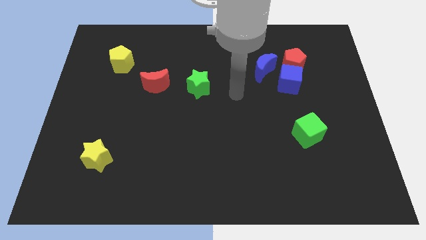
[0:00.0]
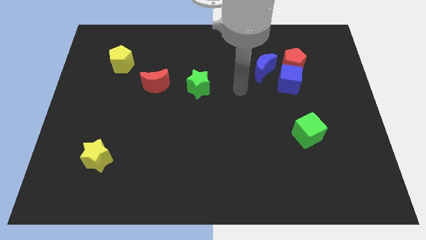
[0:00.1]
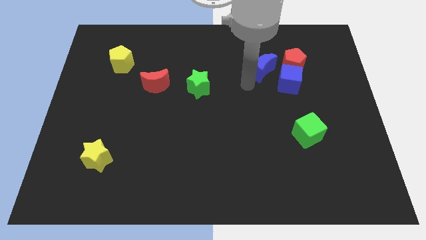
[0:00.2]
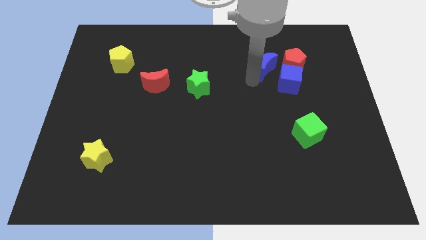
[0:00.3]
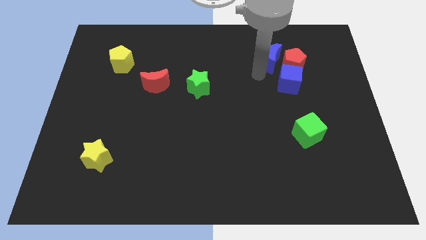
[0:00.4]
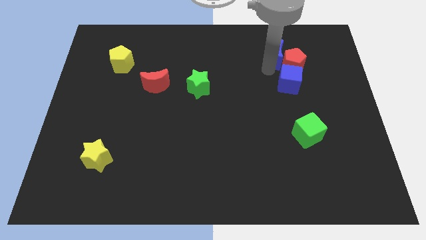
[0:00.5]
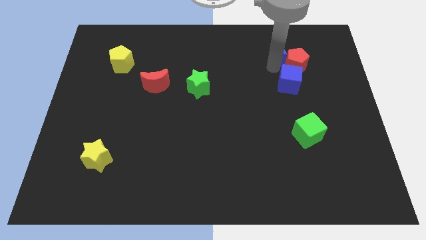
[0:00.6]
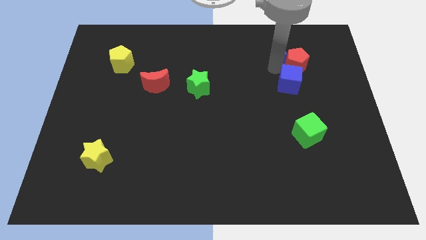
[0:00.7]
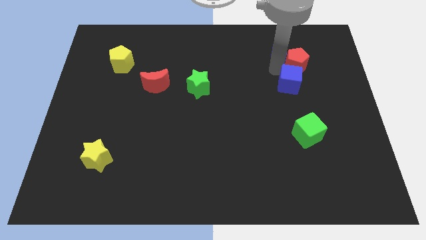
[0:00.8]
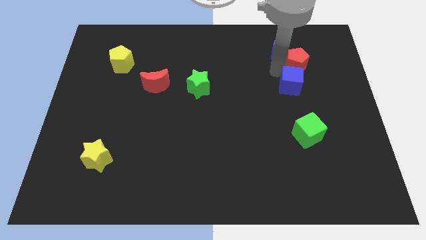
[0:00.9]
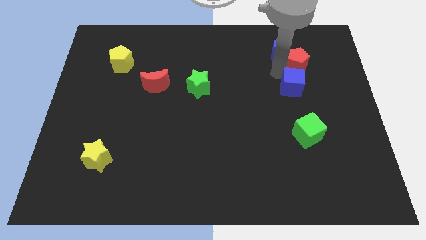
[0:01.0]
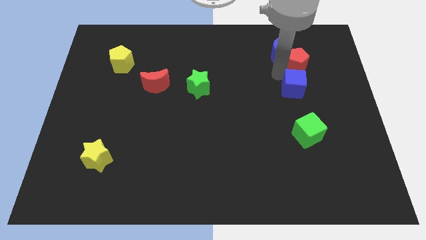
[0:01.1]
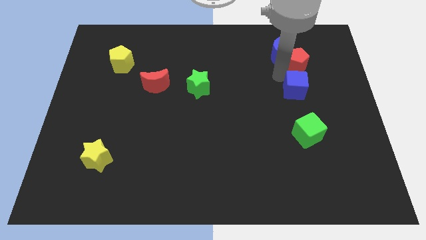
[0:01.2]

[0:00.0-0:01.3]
pull the blue cube apart from the red pentagon and blue moon

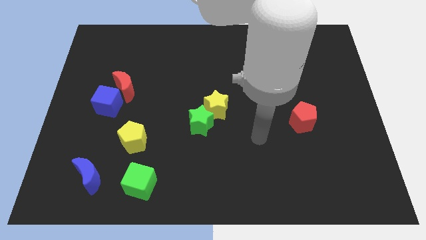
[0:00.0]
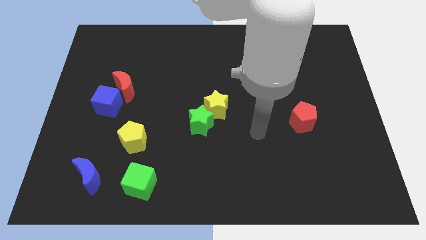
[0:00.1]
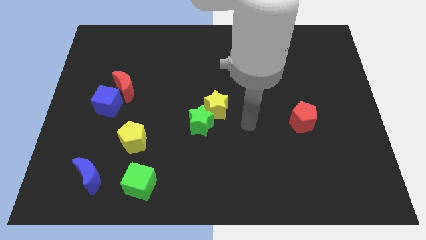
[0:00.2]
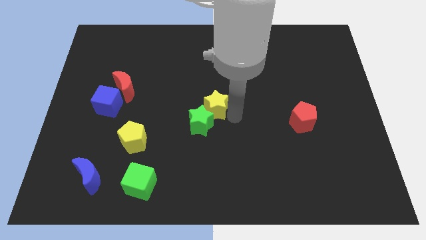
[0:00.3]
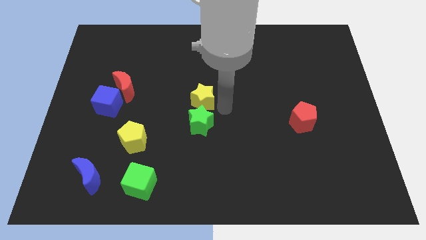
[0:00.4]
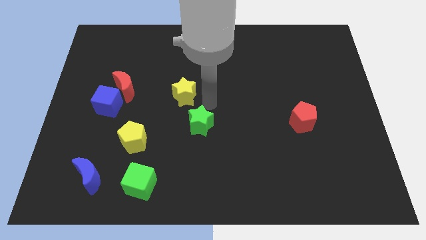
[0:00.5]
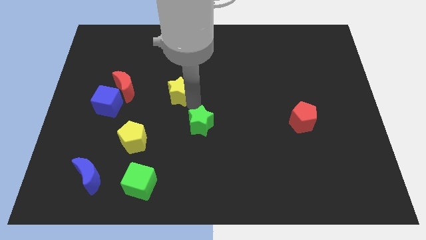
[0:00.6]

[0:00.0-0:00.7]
pull the green star apart from the yellow star

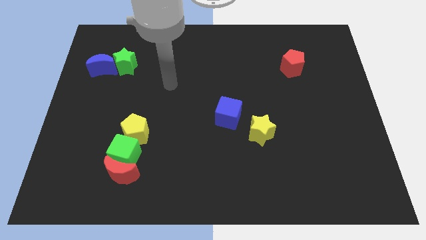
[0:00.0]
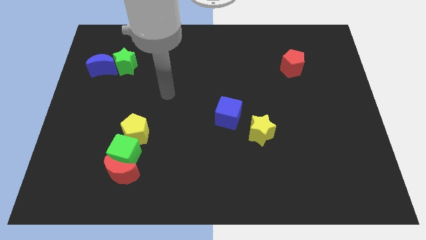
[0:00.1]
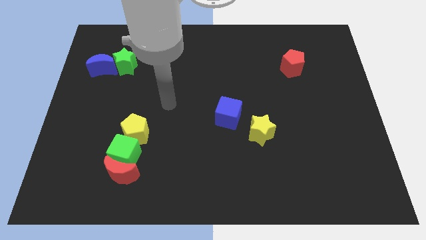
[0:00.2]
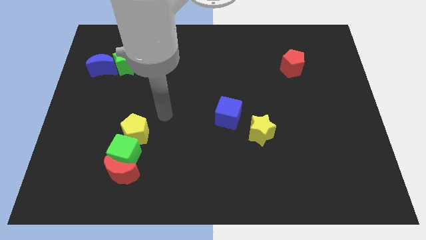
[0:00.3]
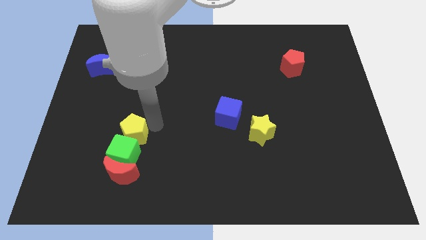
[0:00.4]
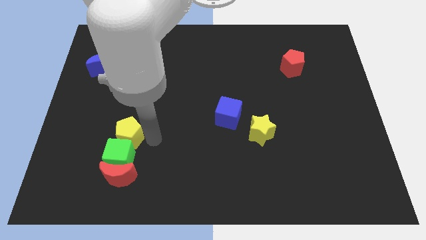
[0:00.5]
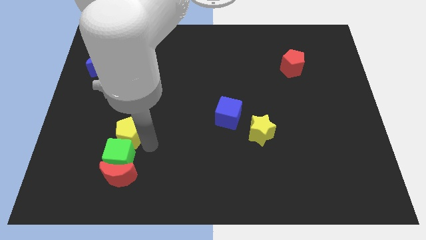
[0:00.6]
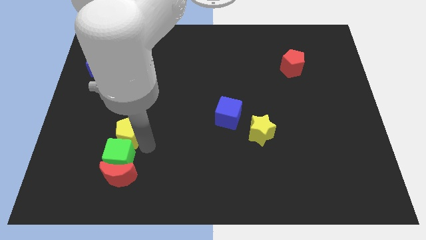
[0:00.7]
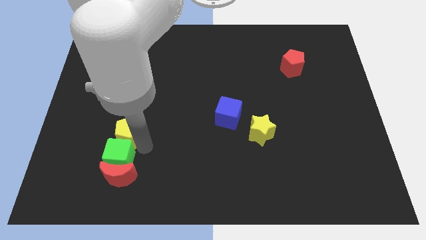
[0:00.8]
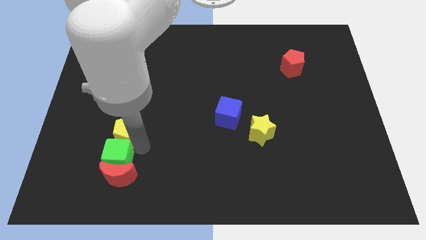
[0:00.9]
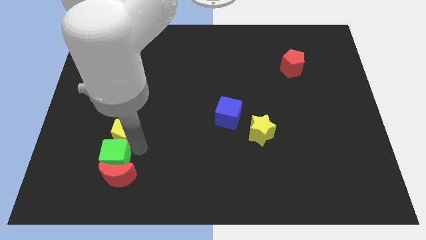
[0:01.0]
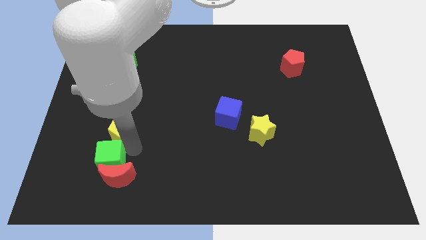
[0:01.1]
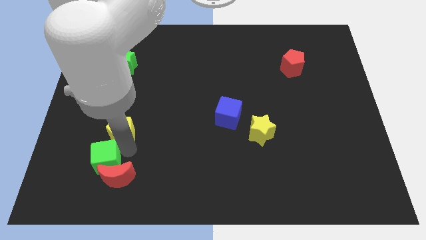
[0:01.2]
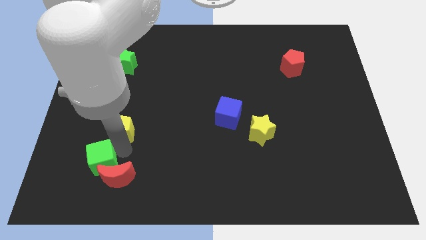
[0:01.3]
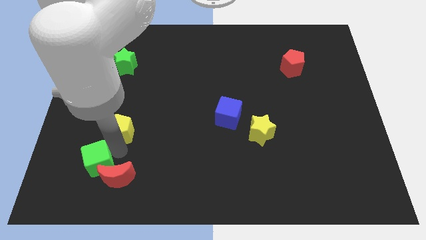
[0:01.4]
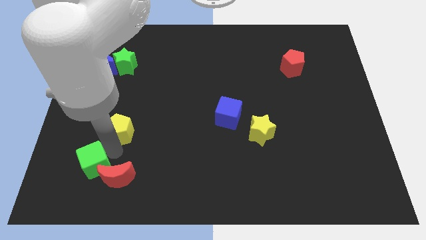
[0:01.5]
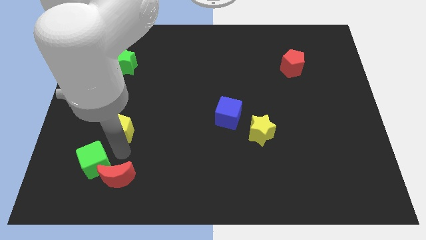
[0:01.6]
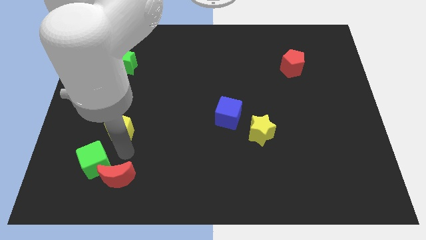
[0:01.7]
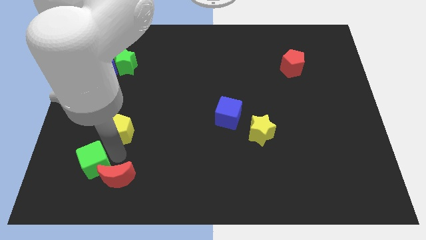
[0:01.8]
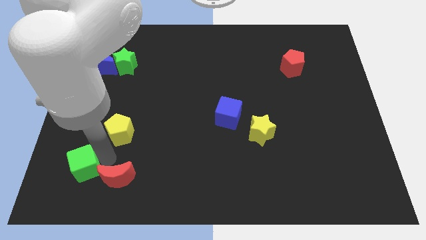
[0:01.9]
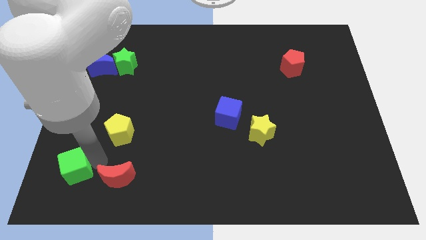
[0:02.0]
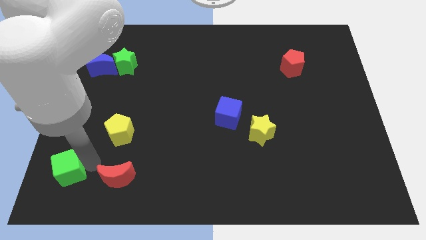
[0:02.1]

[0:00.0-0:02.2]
move the green cube away from the red moon and yellow pentagon

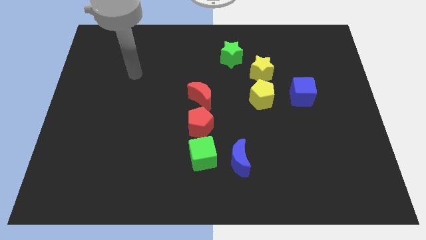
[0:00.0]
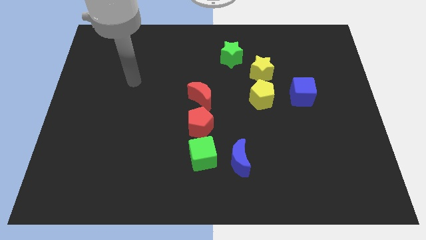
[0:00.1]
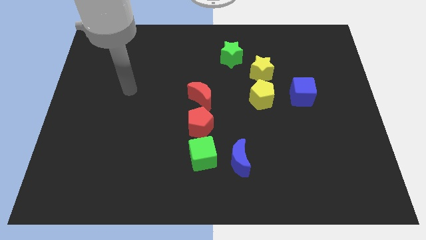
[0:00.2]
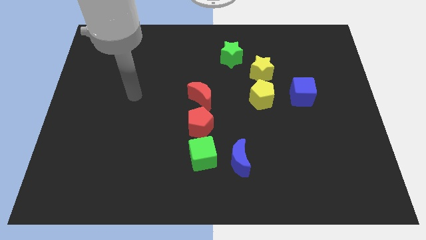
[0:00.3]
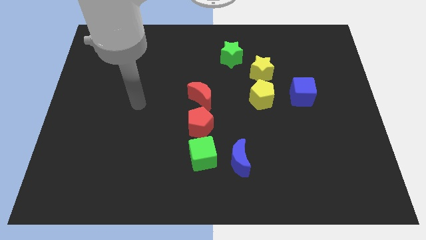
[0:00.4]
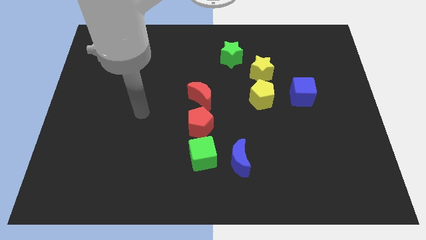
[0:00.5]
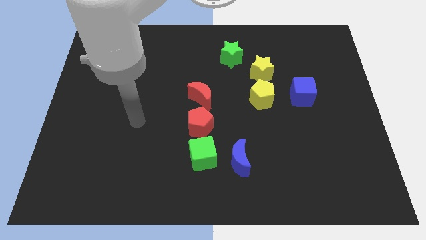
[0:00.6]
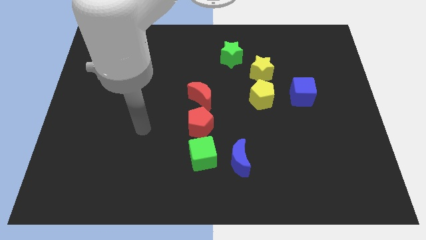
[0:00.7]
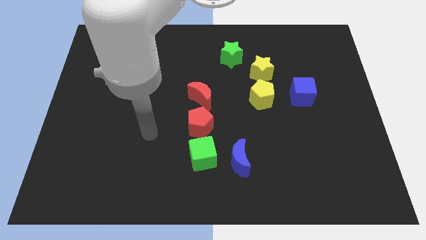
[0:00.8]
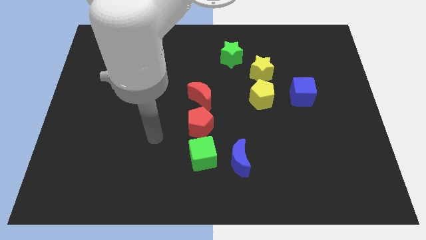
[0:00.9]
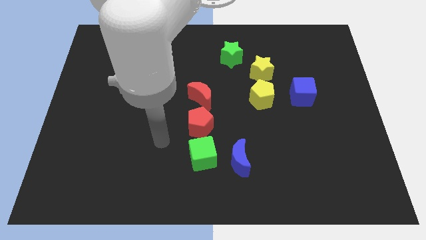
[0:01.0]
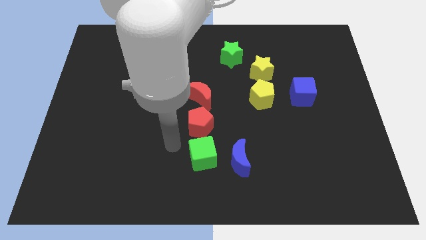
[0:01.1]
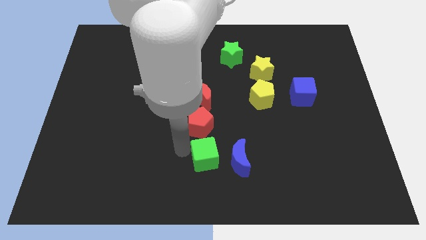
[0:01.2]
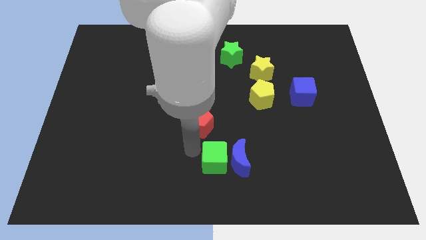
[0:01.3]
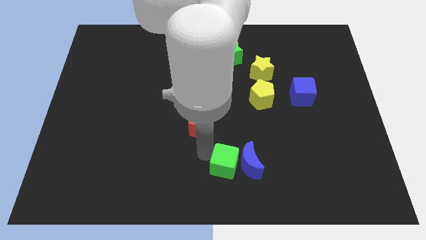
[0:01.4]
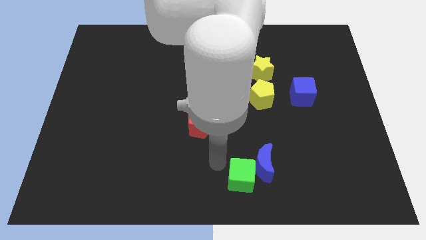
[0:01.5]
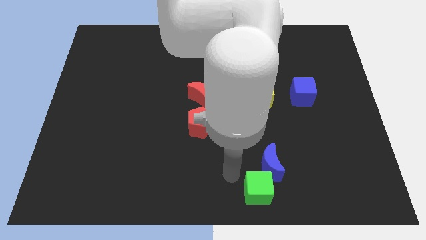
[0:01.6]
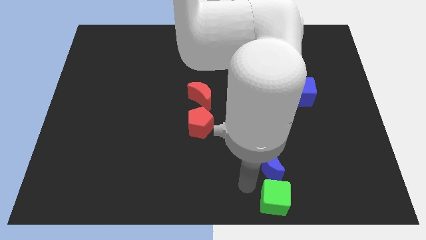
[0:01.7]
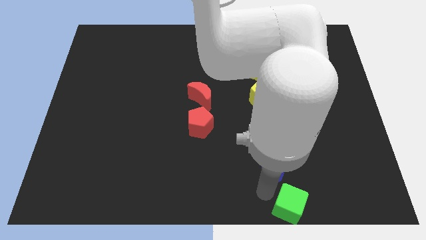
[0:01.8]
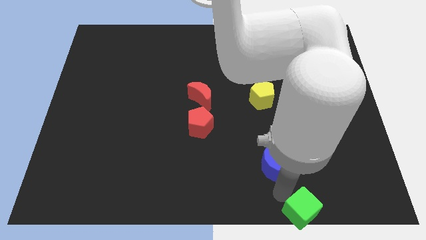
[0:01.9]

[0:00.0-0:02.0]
pull the blue moon apart from the green cube

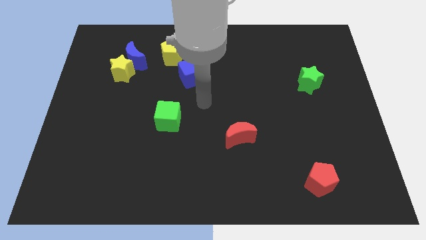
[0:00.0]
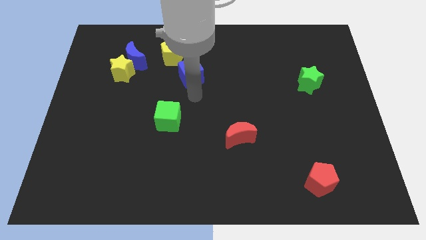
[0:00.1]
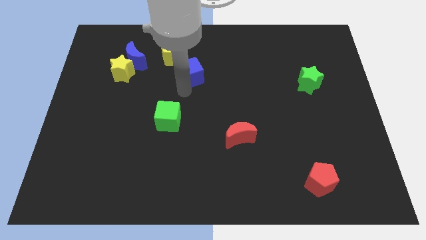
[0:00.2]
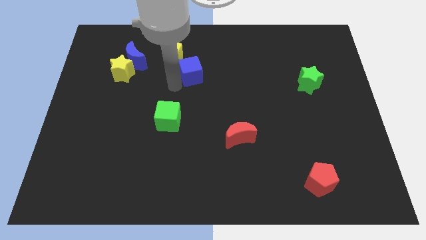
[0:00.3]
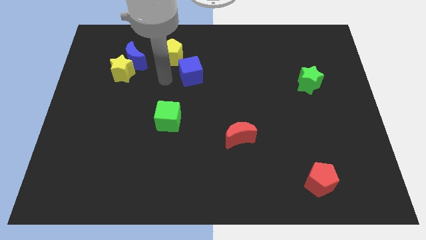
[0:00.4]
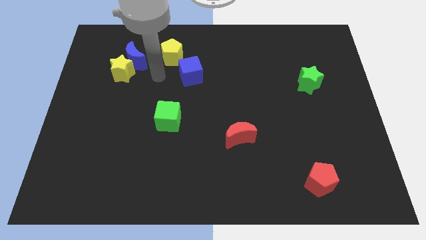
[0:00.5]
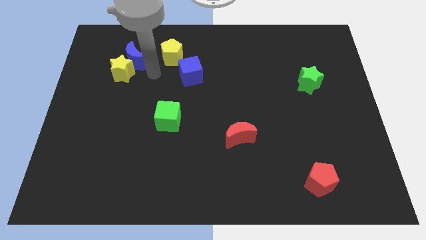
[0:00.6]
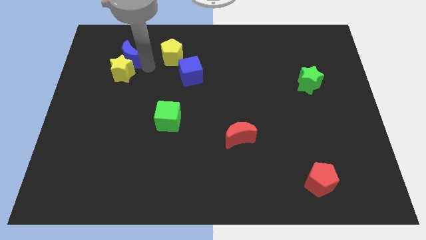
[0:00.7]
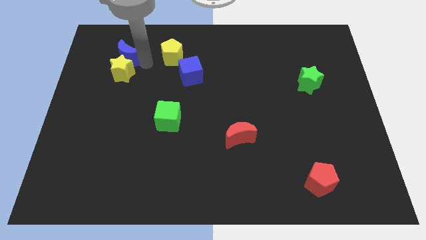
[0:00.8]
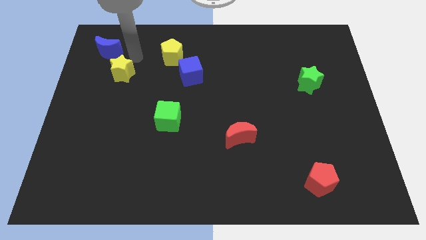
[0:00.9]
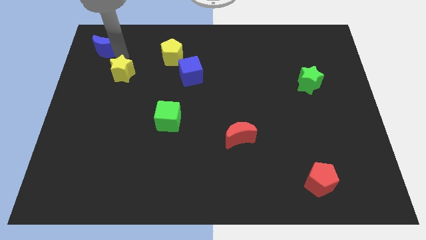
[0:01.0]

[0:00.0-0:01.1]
separate the yellow star from the blue moon

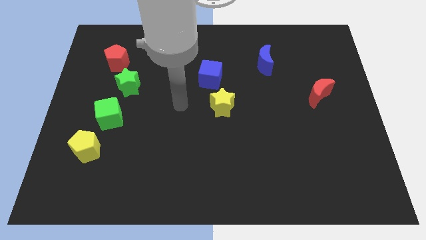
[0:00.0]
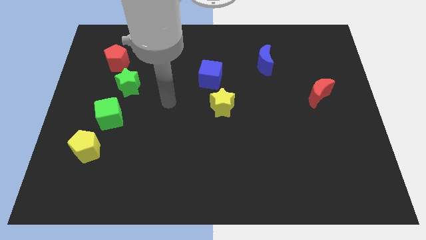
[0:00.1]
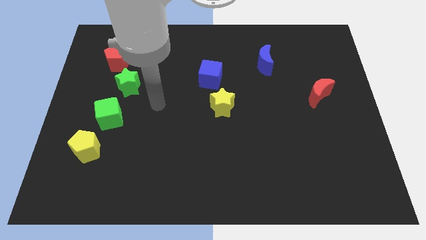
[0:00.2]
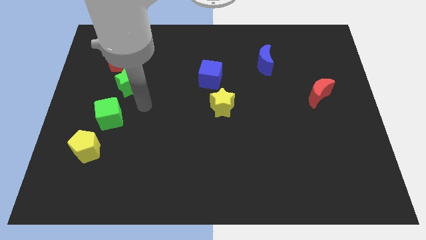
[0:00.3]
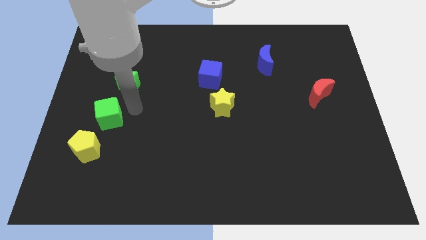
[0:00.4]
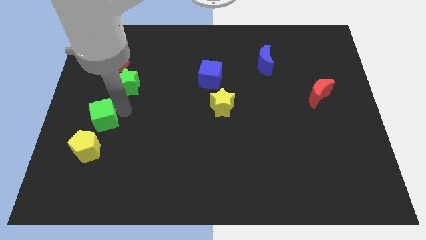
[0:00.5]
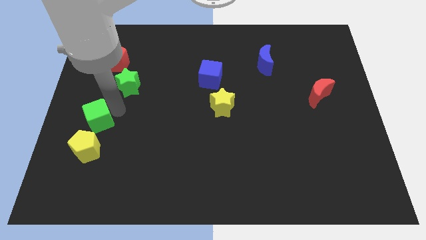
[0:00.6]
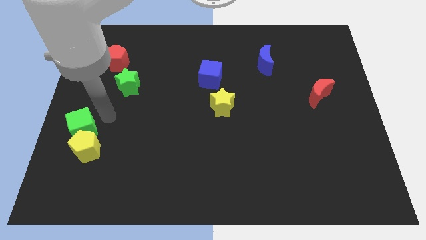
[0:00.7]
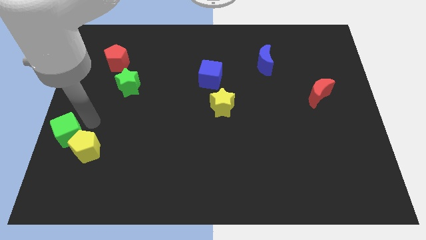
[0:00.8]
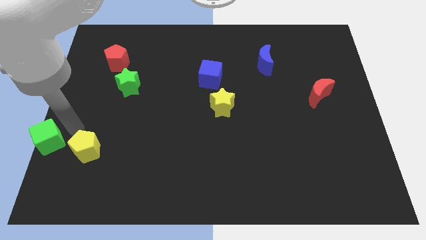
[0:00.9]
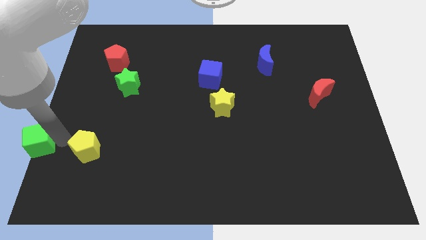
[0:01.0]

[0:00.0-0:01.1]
separate the yellow pentagon from the green cube

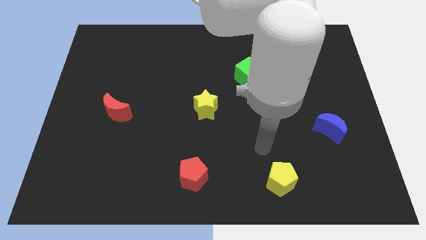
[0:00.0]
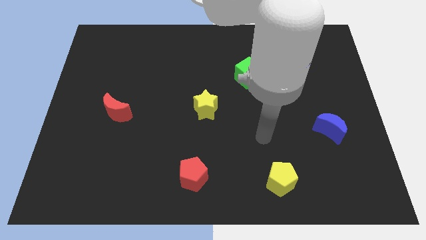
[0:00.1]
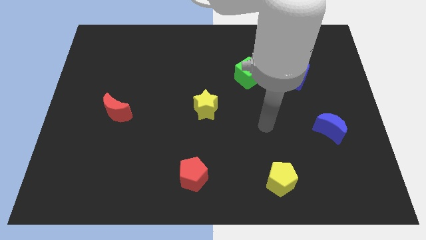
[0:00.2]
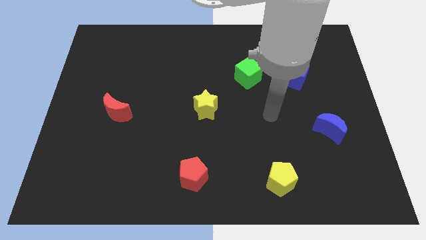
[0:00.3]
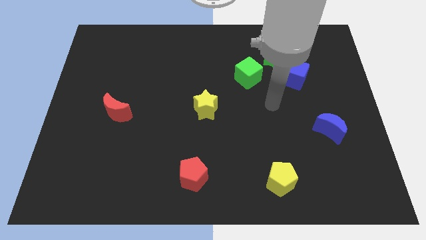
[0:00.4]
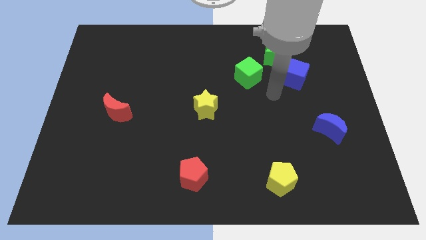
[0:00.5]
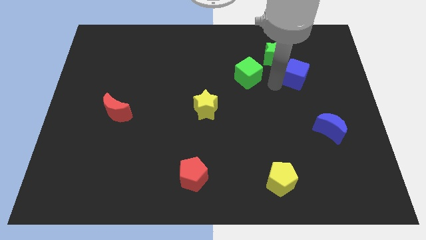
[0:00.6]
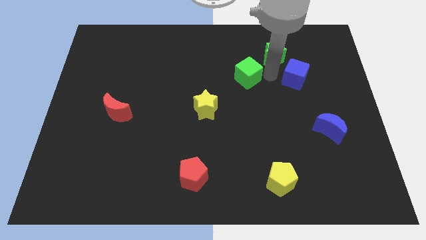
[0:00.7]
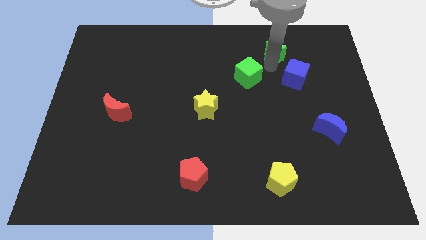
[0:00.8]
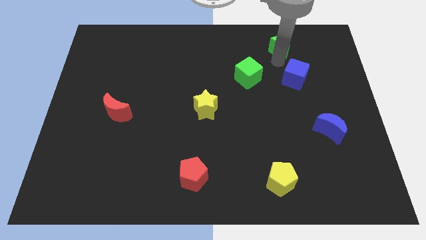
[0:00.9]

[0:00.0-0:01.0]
move the blue cube away from the green star
